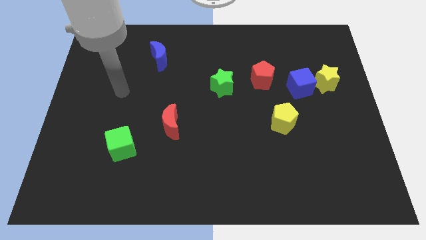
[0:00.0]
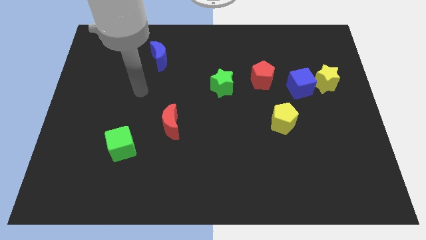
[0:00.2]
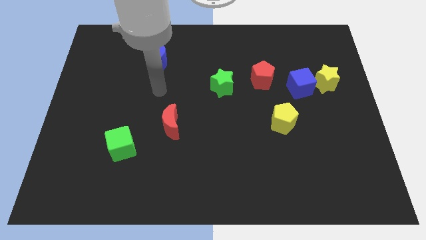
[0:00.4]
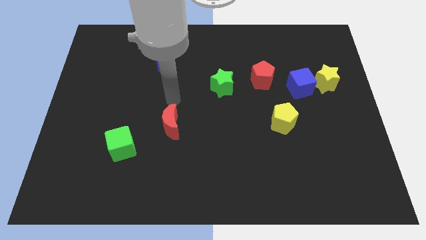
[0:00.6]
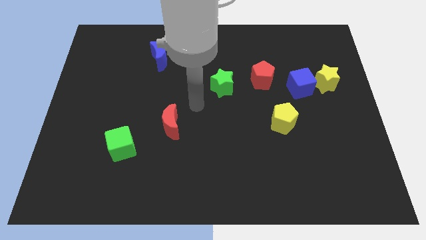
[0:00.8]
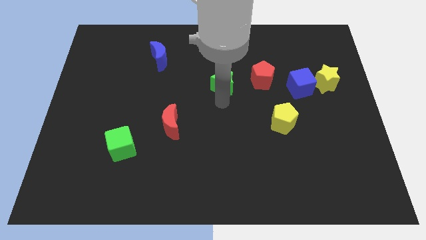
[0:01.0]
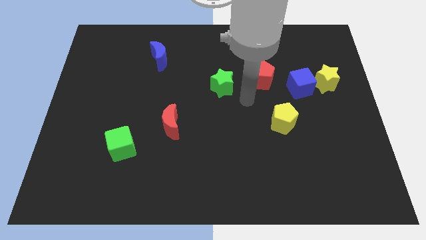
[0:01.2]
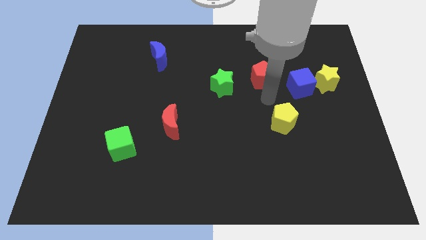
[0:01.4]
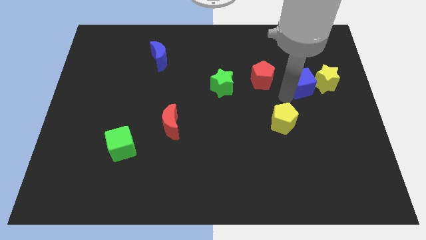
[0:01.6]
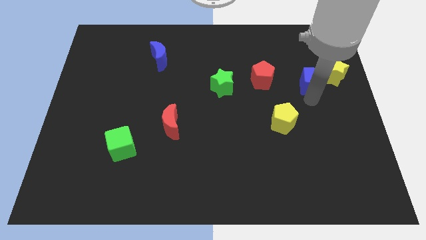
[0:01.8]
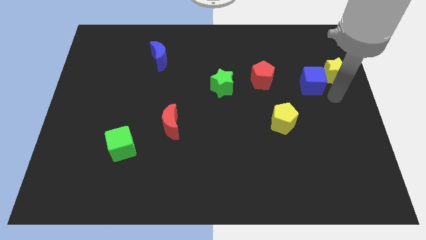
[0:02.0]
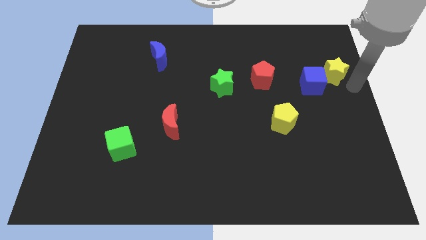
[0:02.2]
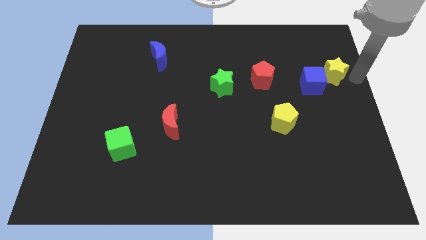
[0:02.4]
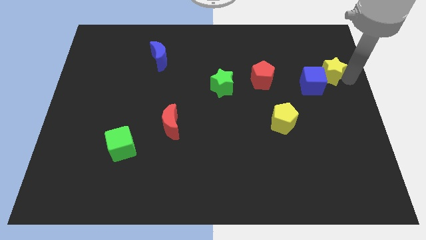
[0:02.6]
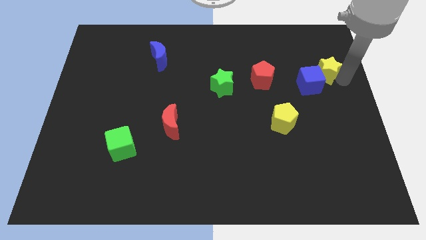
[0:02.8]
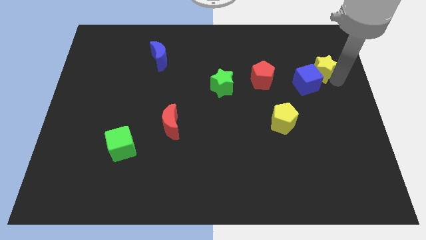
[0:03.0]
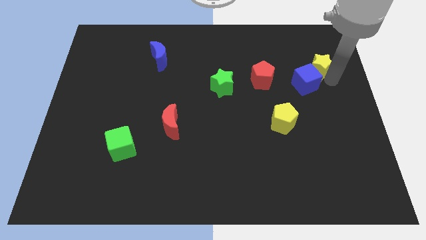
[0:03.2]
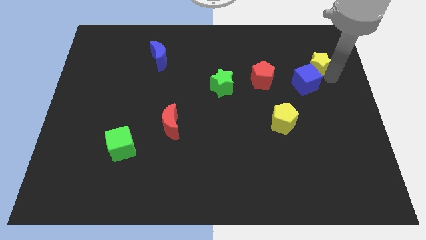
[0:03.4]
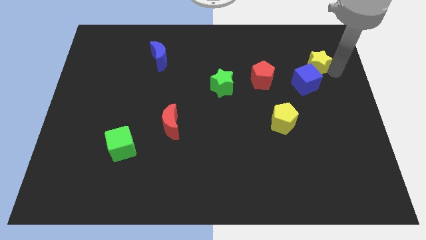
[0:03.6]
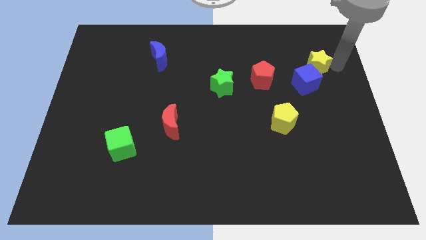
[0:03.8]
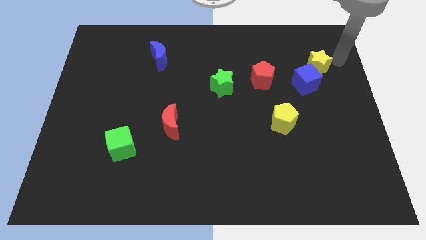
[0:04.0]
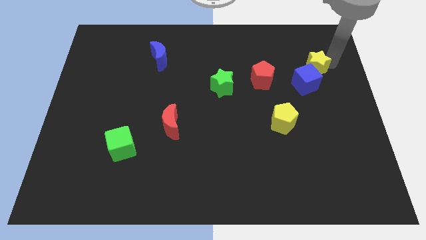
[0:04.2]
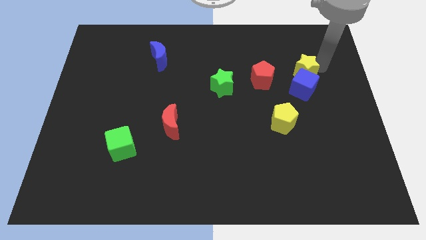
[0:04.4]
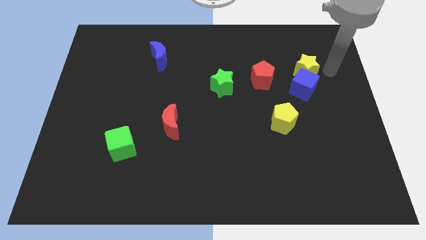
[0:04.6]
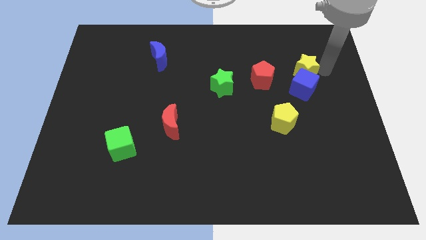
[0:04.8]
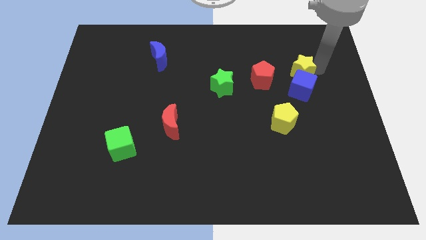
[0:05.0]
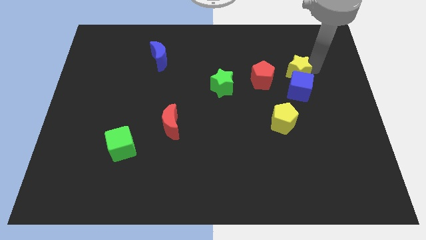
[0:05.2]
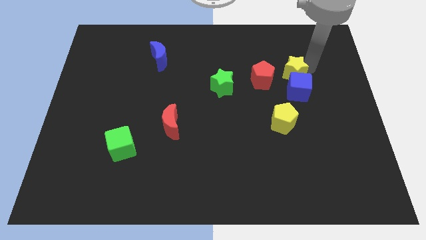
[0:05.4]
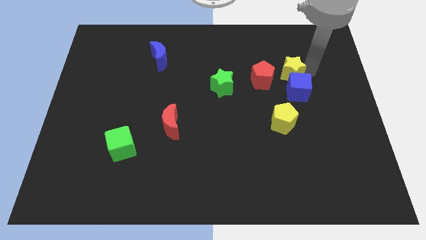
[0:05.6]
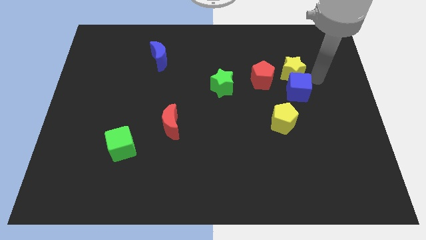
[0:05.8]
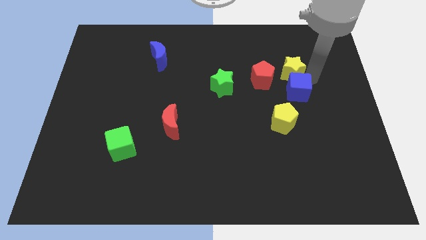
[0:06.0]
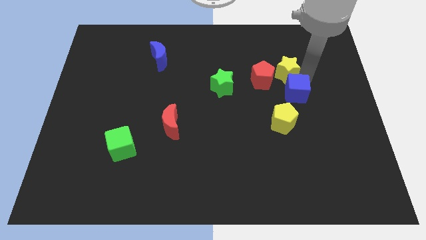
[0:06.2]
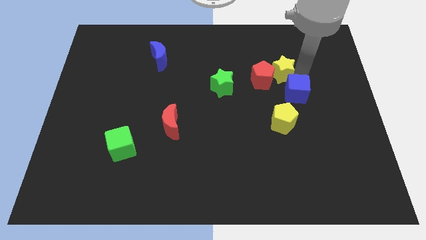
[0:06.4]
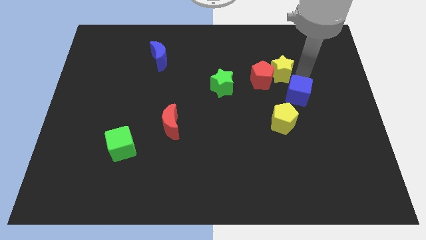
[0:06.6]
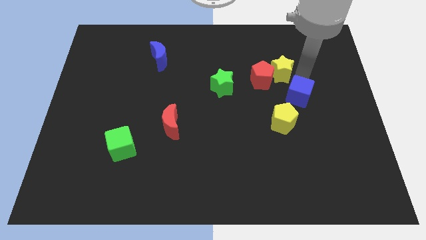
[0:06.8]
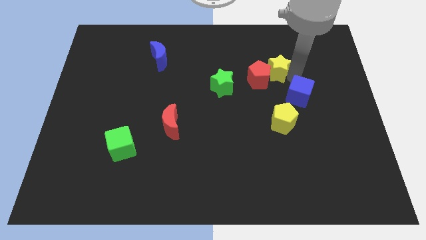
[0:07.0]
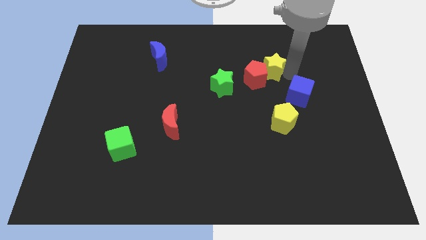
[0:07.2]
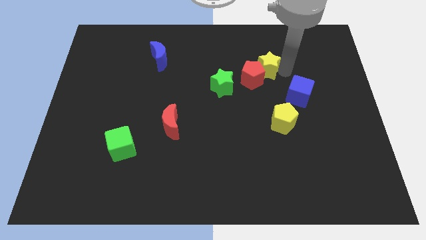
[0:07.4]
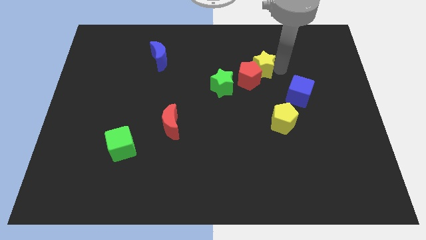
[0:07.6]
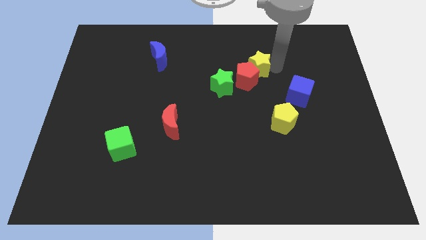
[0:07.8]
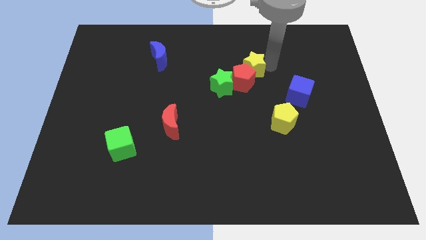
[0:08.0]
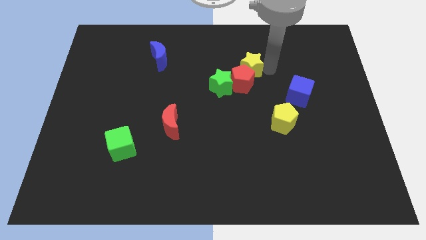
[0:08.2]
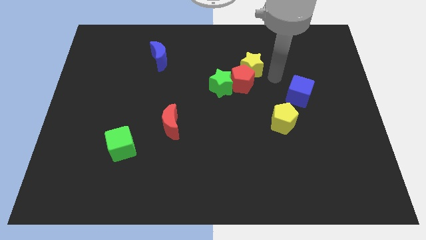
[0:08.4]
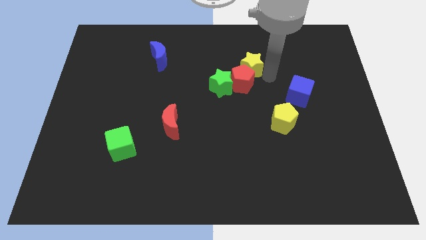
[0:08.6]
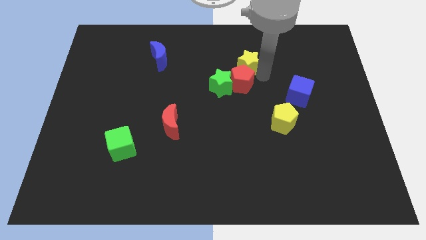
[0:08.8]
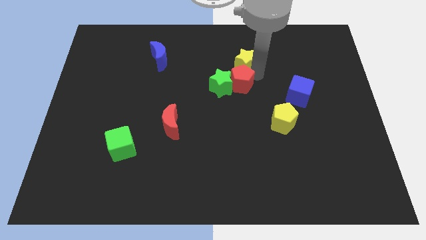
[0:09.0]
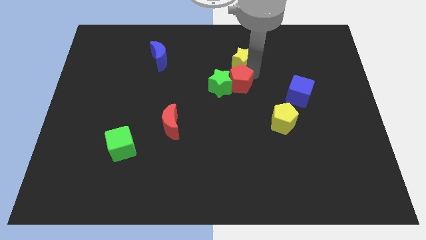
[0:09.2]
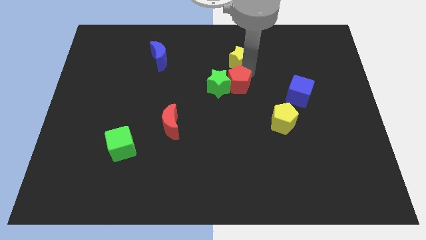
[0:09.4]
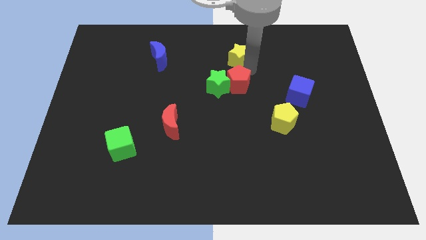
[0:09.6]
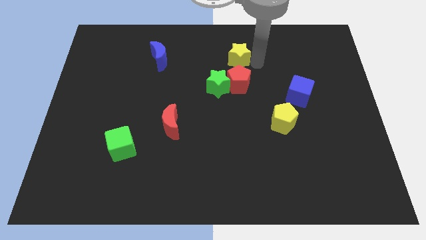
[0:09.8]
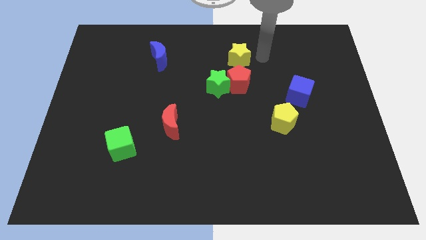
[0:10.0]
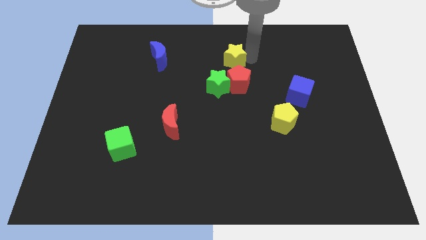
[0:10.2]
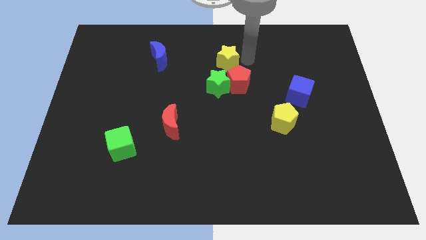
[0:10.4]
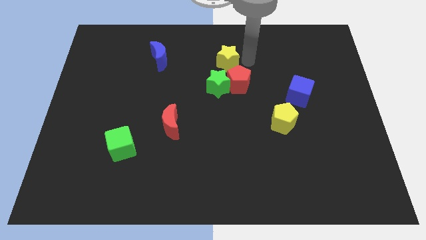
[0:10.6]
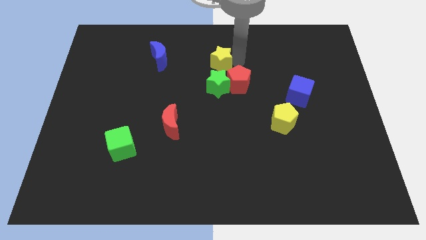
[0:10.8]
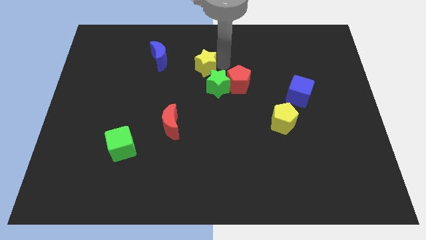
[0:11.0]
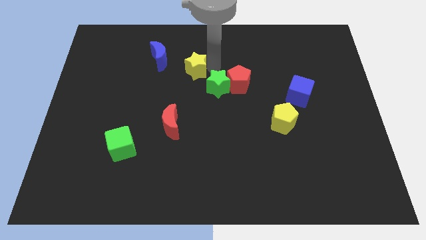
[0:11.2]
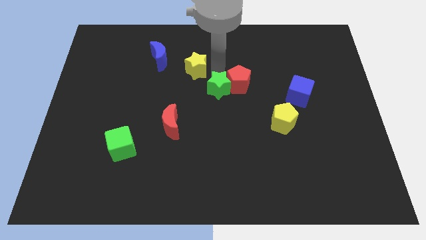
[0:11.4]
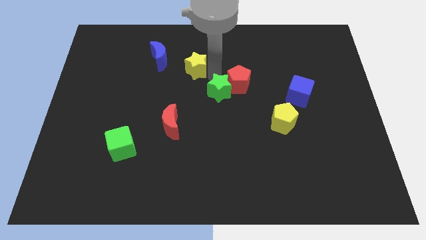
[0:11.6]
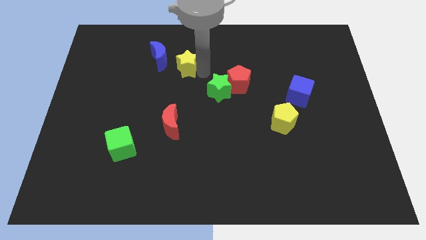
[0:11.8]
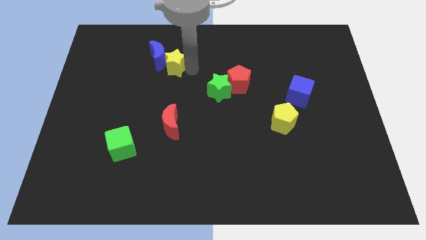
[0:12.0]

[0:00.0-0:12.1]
move the yellow star close to the blue moon

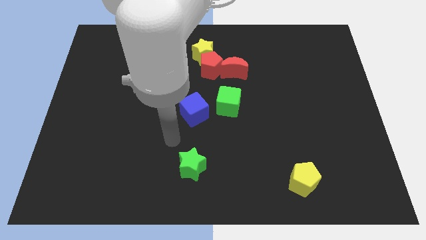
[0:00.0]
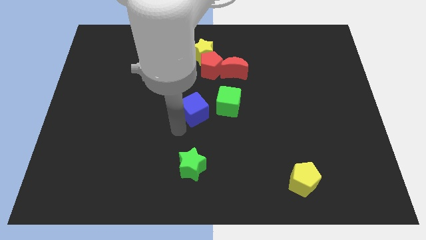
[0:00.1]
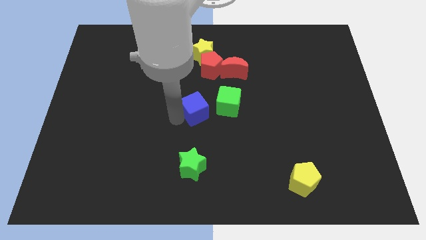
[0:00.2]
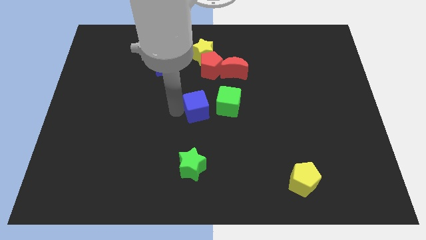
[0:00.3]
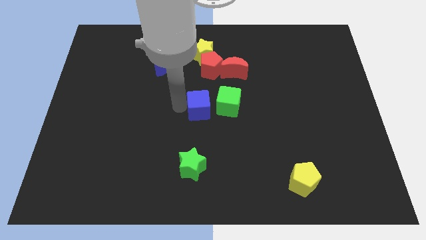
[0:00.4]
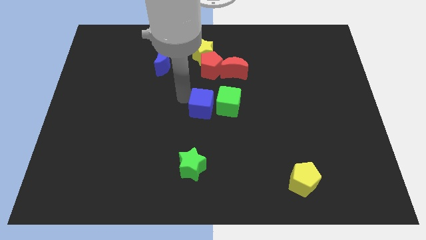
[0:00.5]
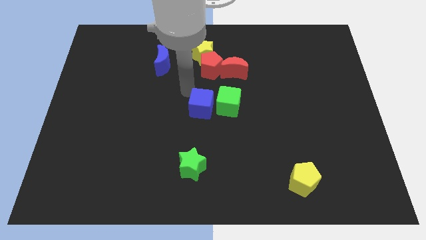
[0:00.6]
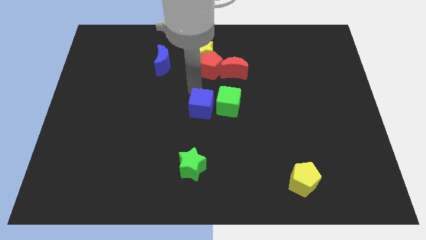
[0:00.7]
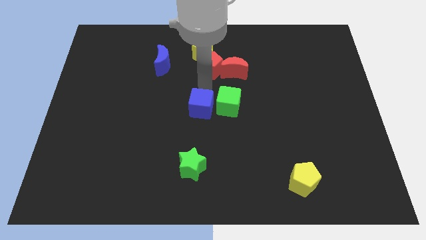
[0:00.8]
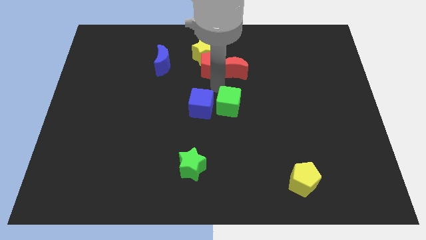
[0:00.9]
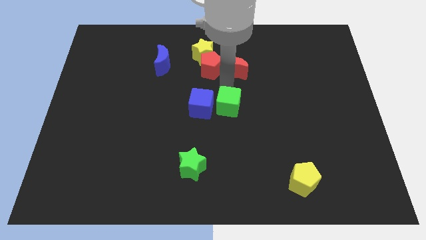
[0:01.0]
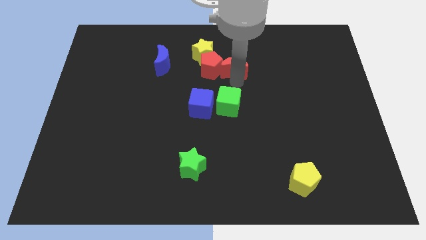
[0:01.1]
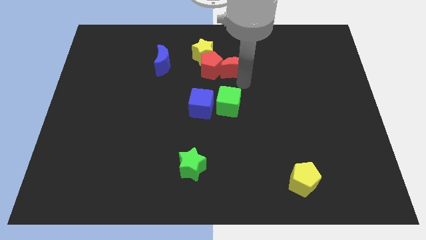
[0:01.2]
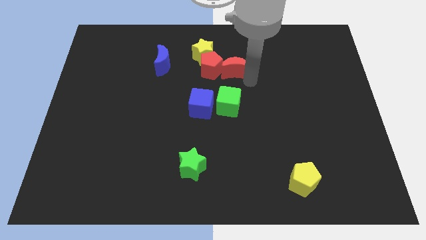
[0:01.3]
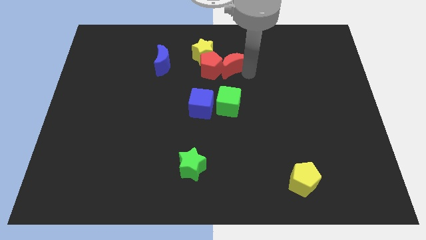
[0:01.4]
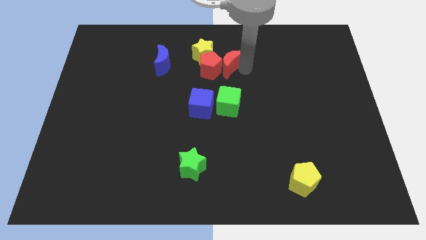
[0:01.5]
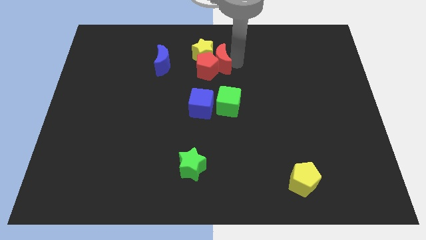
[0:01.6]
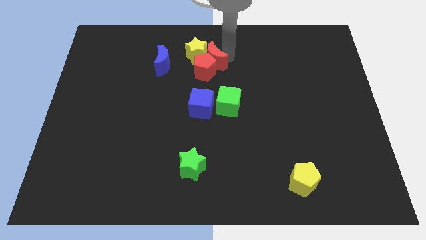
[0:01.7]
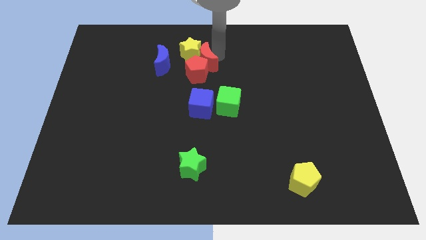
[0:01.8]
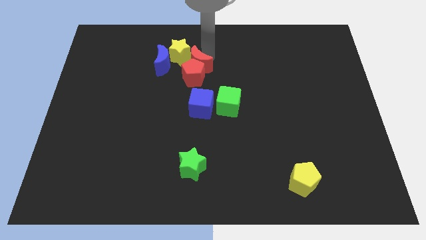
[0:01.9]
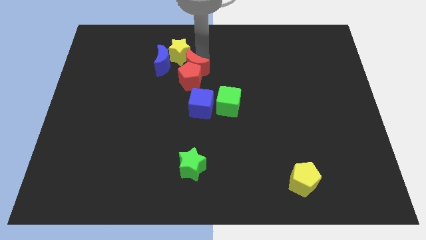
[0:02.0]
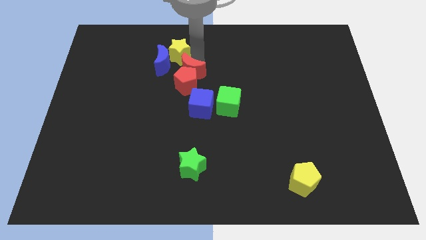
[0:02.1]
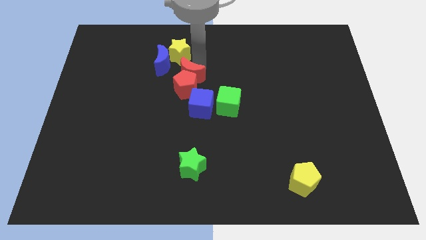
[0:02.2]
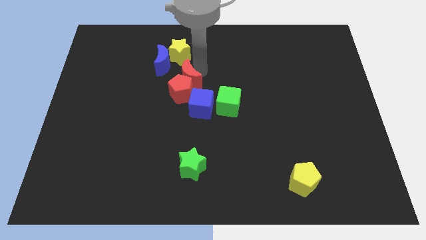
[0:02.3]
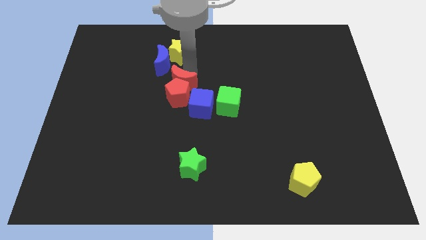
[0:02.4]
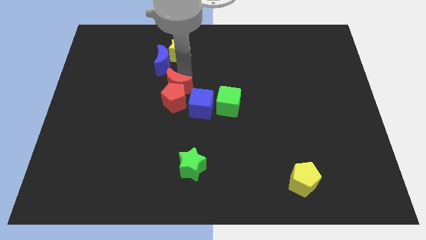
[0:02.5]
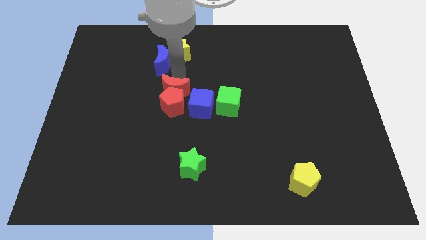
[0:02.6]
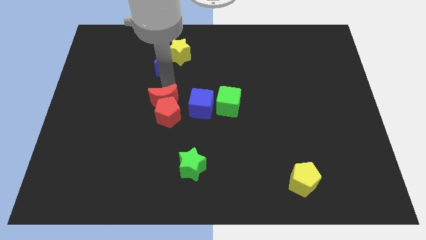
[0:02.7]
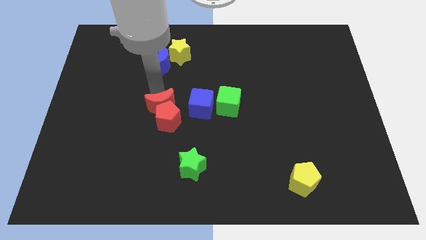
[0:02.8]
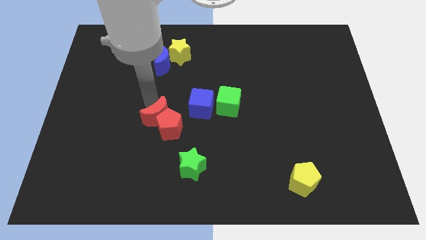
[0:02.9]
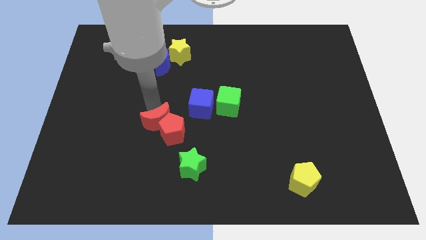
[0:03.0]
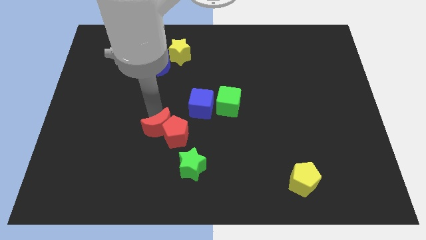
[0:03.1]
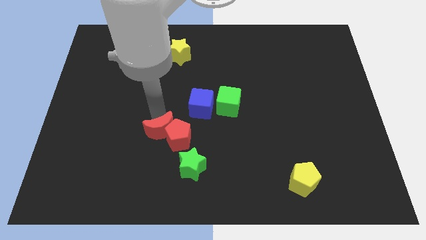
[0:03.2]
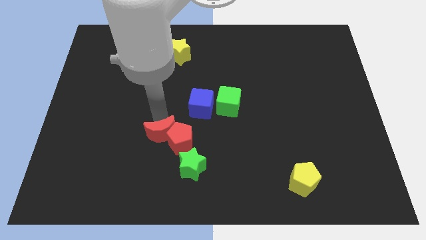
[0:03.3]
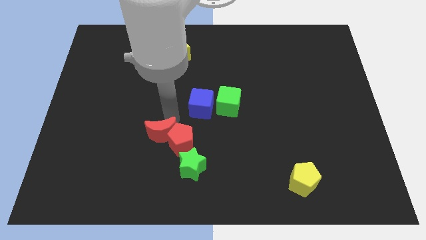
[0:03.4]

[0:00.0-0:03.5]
push the red pentagon to the green star
